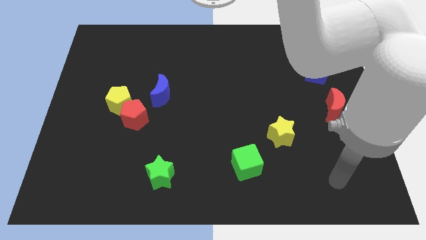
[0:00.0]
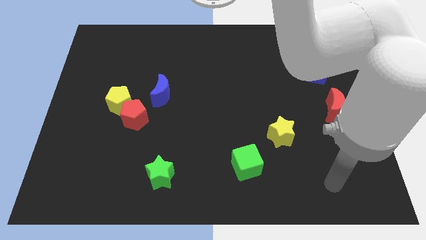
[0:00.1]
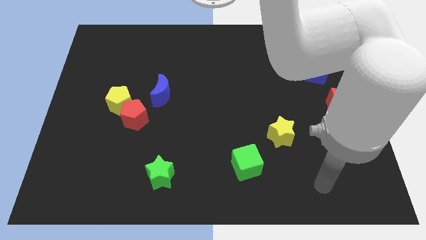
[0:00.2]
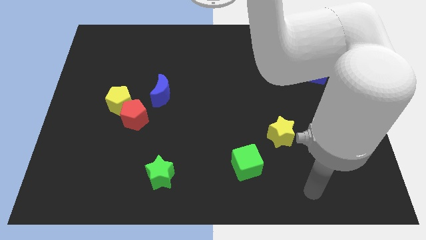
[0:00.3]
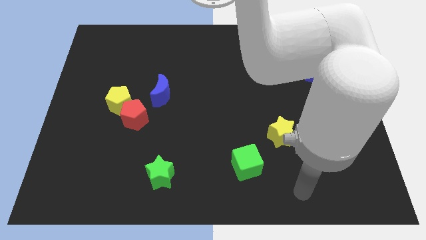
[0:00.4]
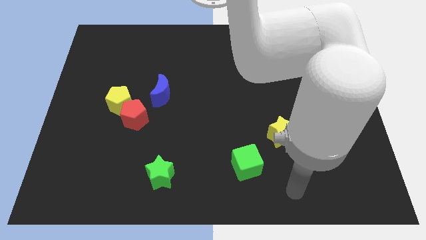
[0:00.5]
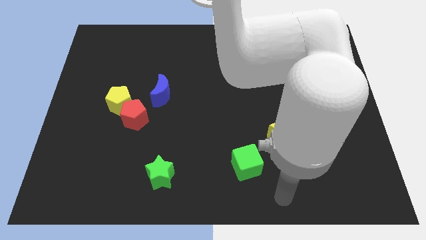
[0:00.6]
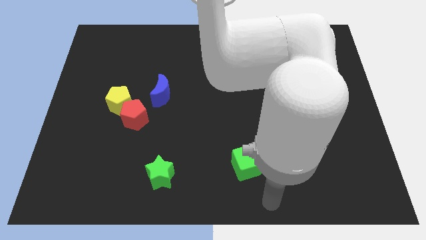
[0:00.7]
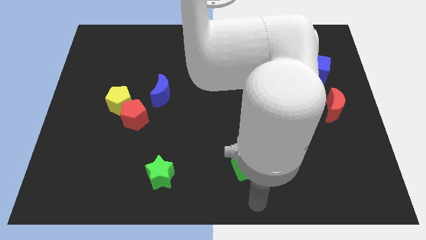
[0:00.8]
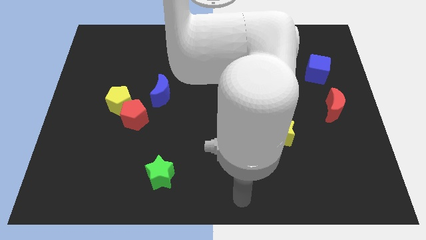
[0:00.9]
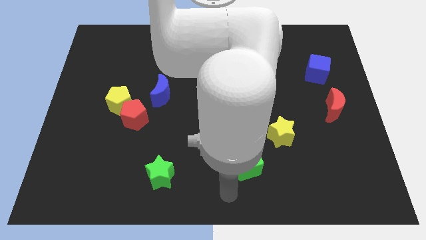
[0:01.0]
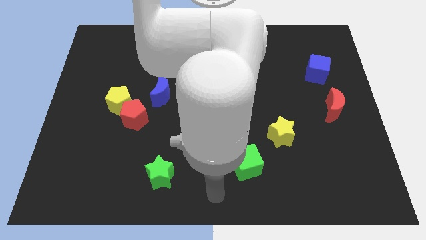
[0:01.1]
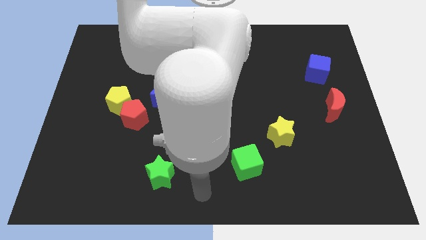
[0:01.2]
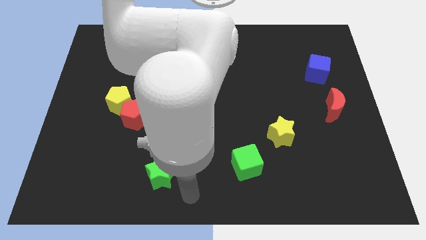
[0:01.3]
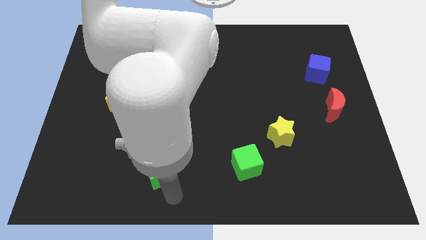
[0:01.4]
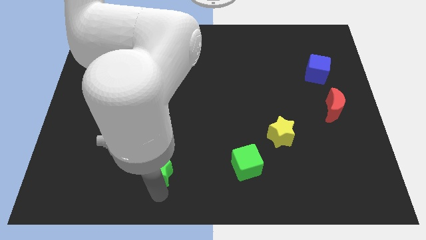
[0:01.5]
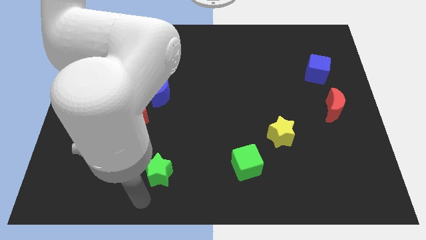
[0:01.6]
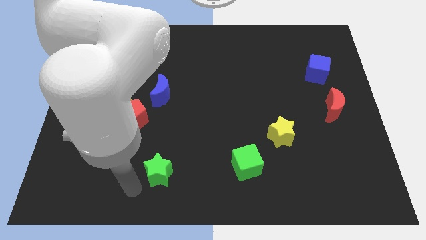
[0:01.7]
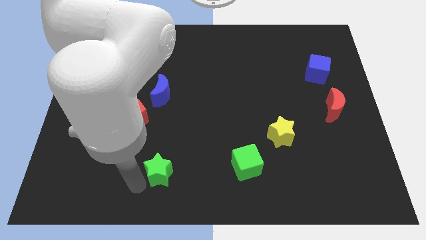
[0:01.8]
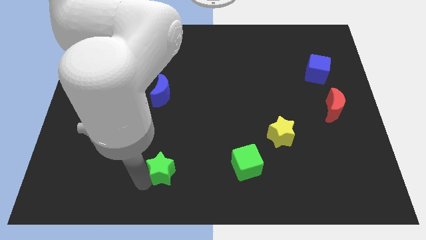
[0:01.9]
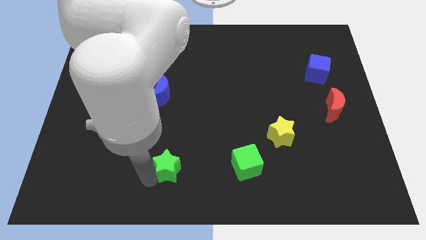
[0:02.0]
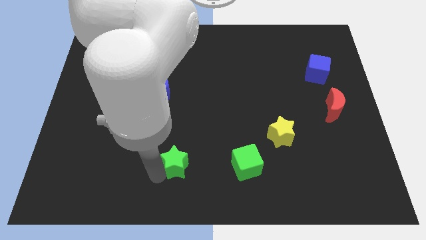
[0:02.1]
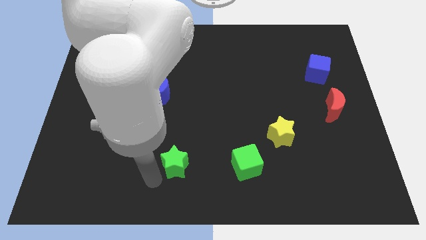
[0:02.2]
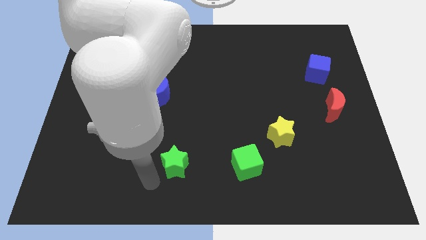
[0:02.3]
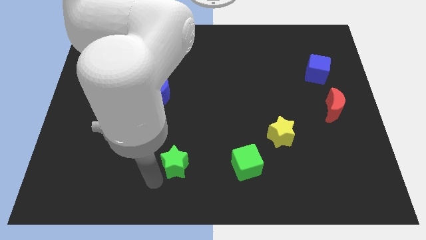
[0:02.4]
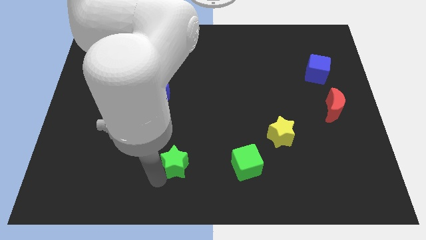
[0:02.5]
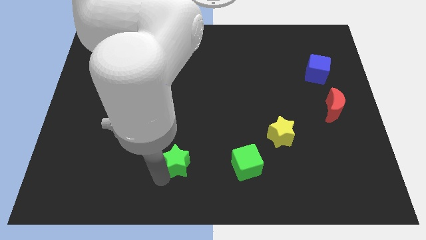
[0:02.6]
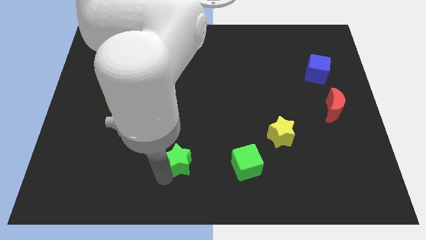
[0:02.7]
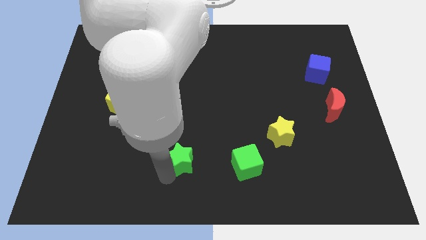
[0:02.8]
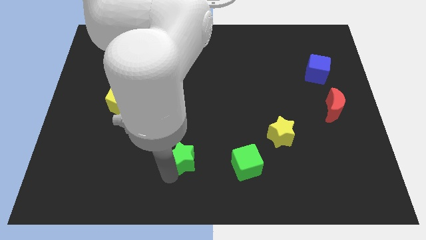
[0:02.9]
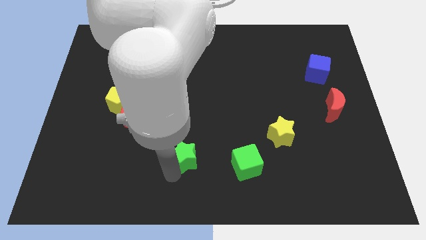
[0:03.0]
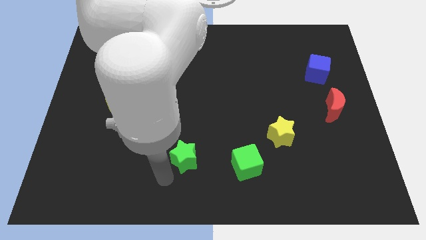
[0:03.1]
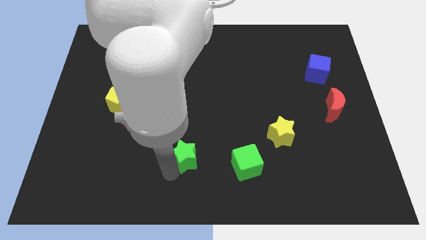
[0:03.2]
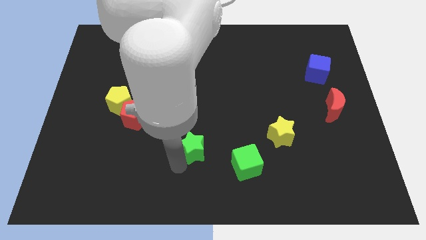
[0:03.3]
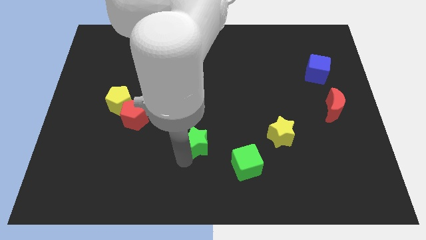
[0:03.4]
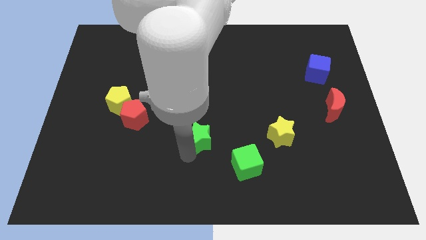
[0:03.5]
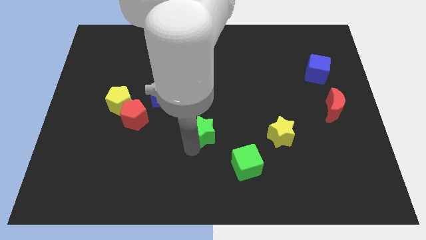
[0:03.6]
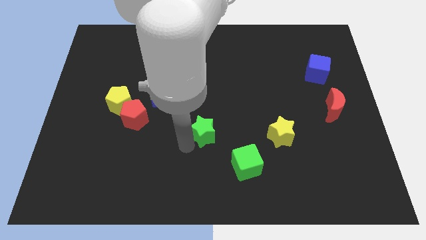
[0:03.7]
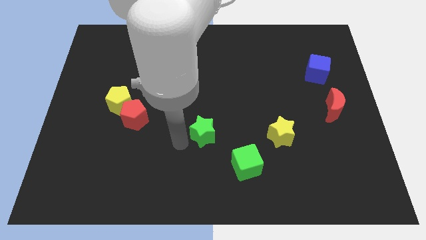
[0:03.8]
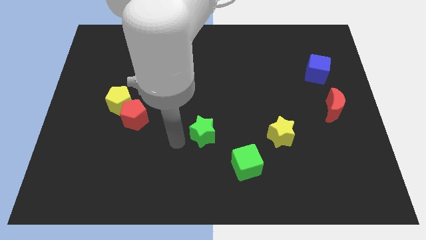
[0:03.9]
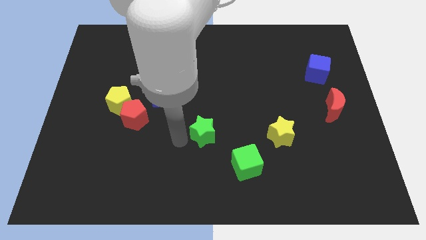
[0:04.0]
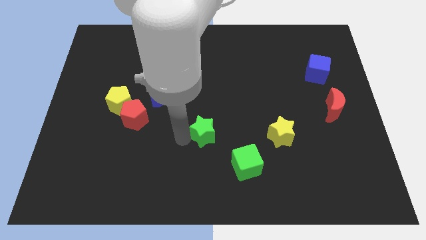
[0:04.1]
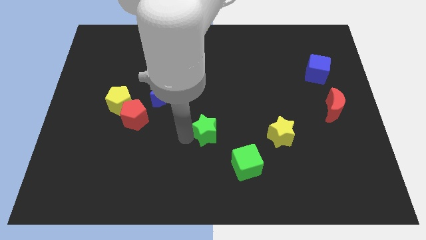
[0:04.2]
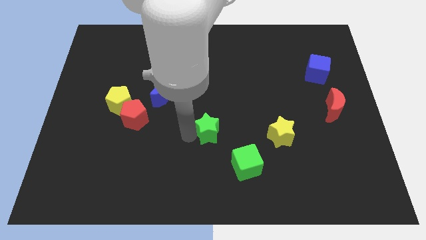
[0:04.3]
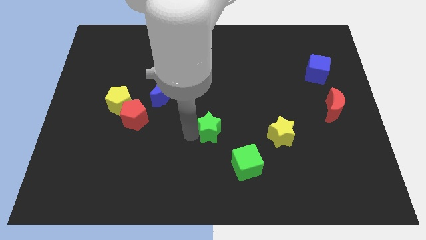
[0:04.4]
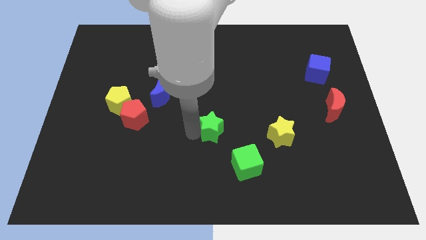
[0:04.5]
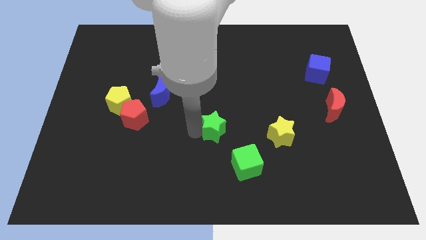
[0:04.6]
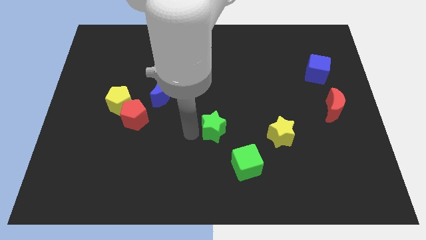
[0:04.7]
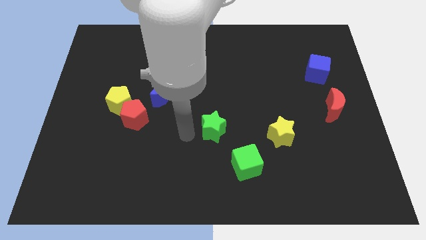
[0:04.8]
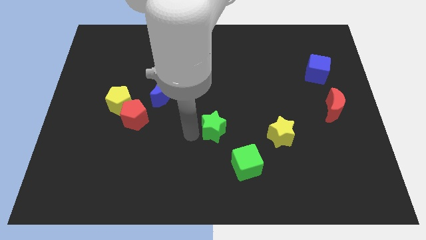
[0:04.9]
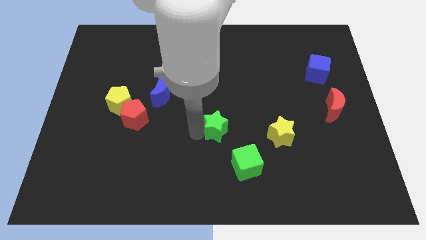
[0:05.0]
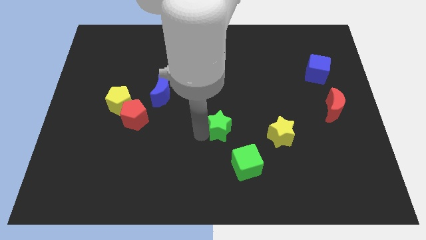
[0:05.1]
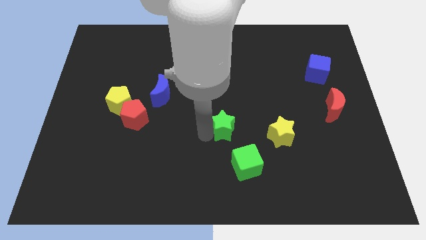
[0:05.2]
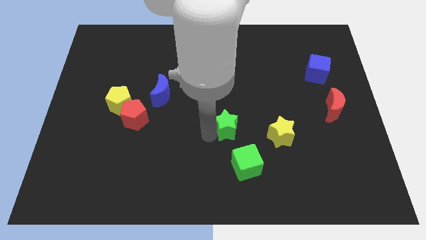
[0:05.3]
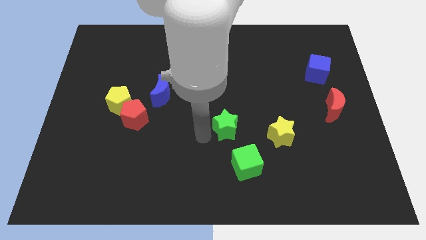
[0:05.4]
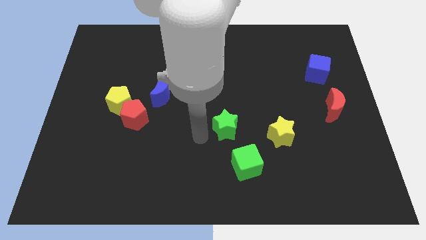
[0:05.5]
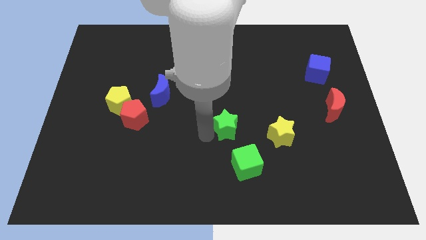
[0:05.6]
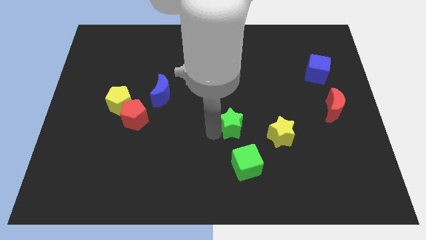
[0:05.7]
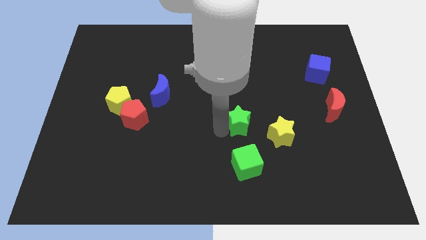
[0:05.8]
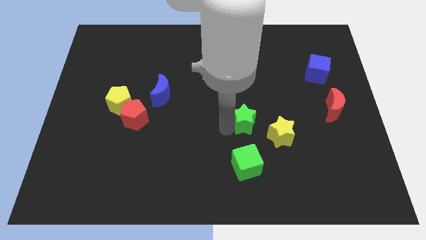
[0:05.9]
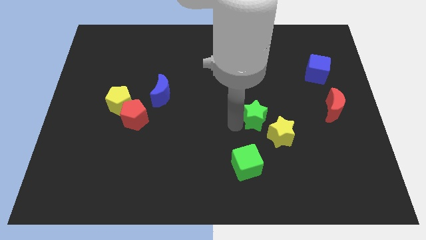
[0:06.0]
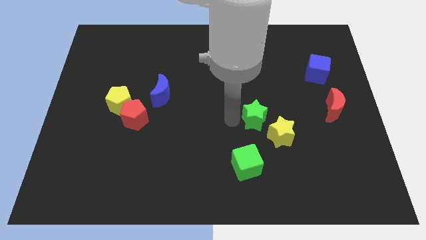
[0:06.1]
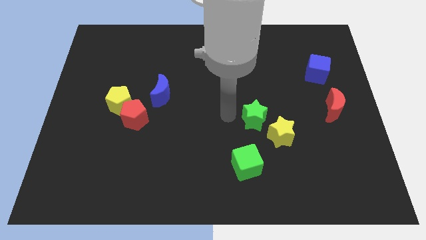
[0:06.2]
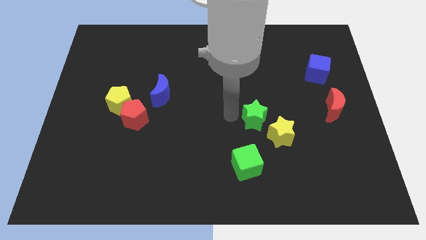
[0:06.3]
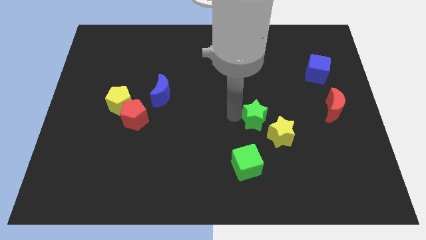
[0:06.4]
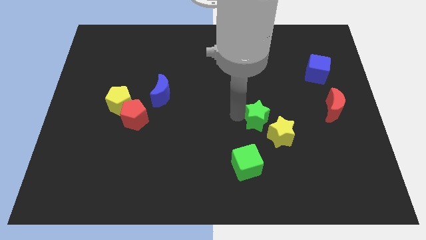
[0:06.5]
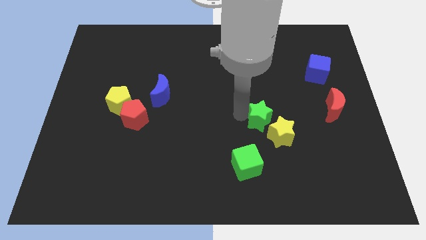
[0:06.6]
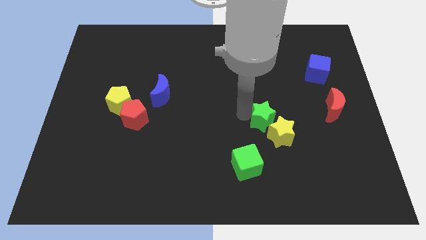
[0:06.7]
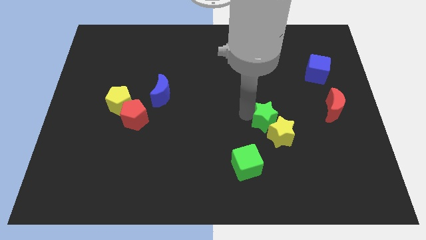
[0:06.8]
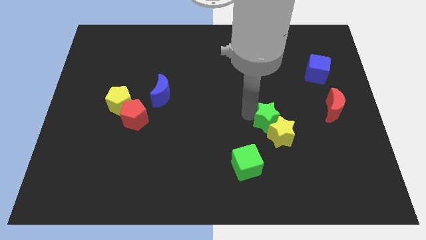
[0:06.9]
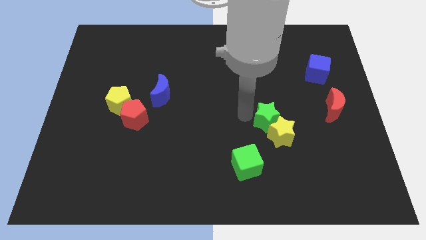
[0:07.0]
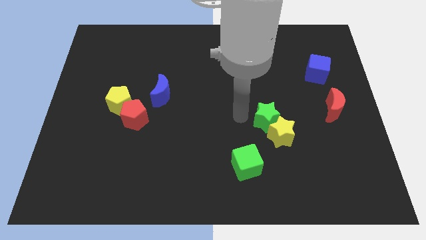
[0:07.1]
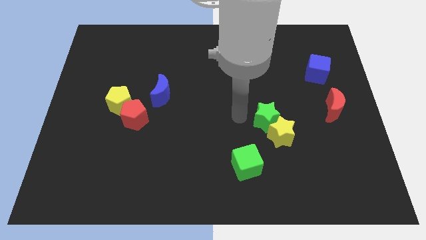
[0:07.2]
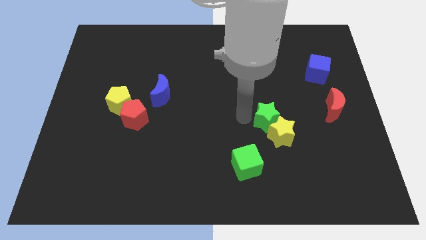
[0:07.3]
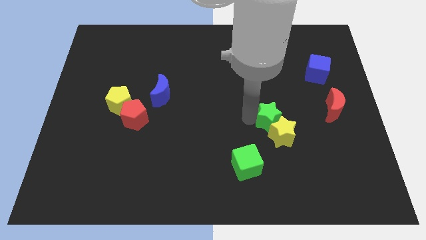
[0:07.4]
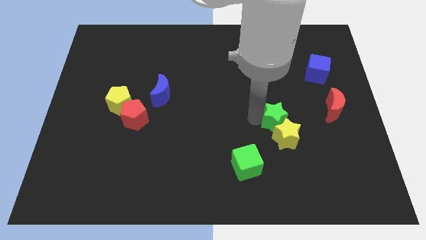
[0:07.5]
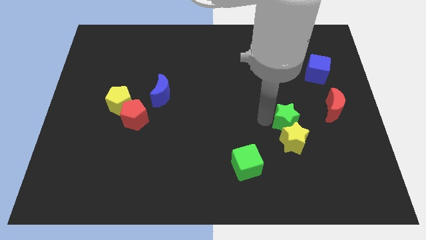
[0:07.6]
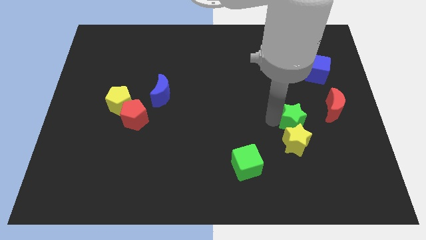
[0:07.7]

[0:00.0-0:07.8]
push the green star to the bottom left side of the red moon

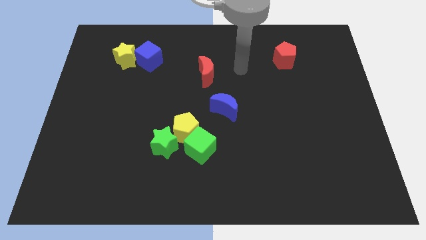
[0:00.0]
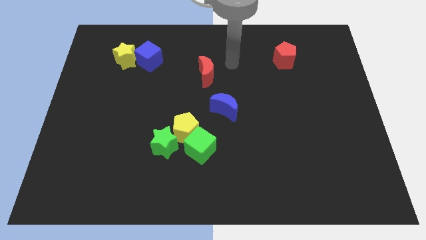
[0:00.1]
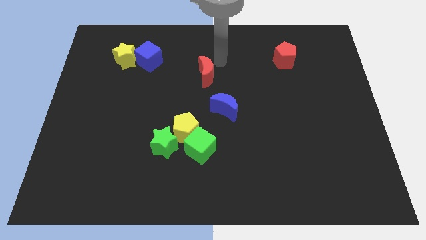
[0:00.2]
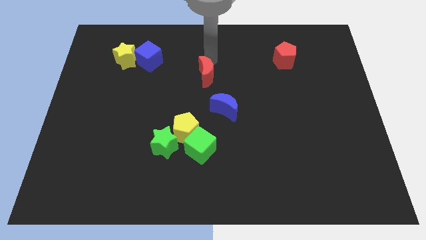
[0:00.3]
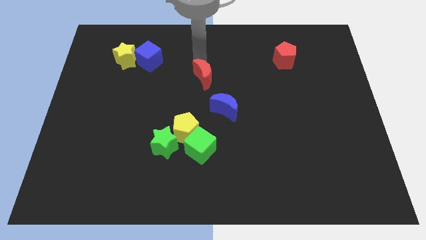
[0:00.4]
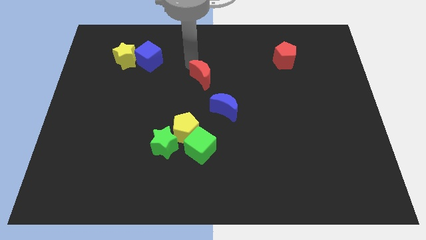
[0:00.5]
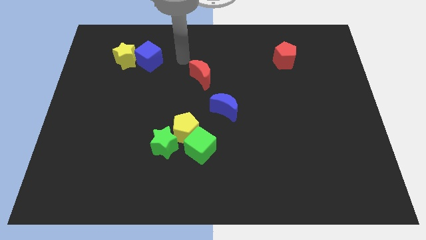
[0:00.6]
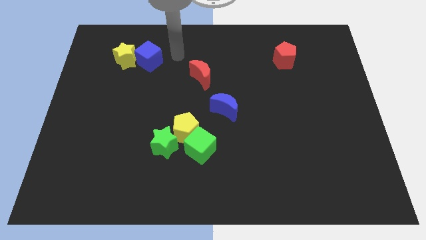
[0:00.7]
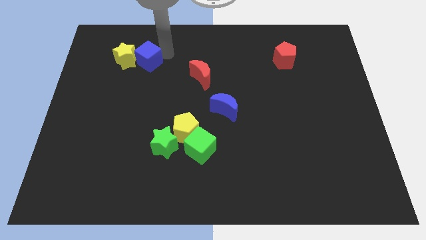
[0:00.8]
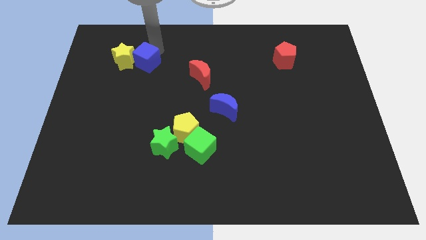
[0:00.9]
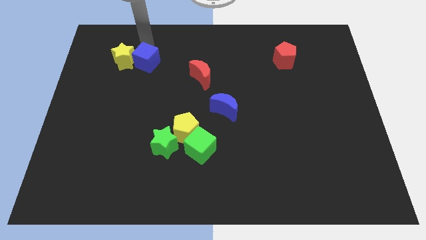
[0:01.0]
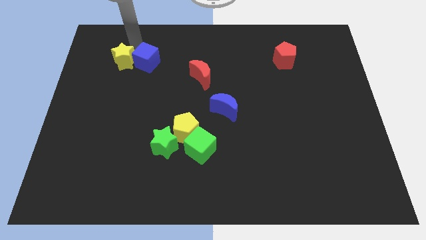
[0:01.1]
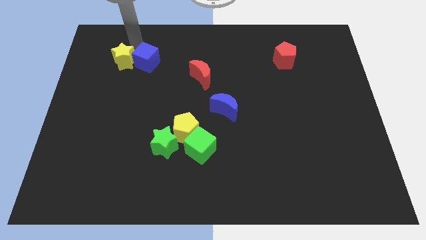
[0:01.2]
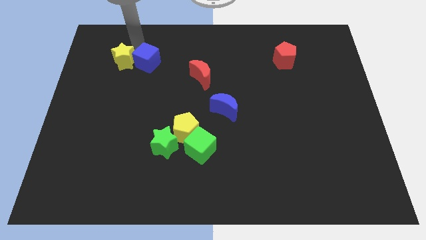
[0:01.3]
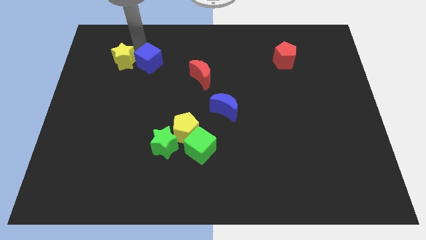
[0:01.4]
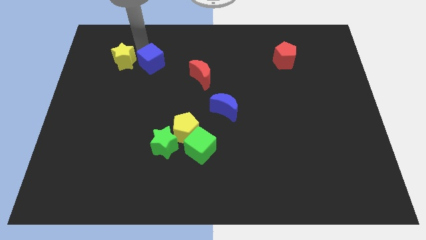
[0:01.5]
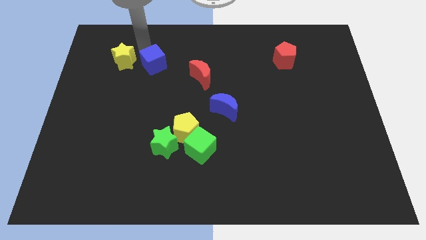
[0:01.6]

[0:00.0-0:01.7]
put the blue cube just left of the red moon
